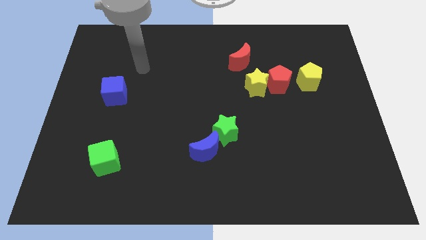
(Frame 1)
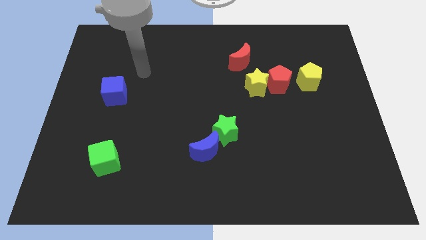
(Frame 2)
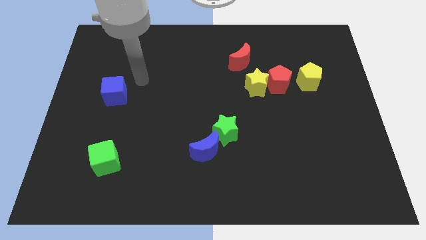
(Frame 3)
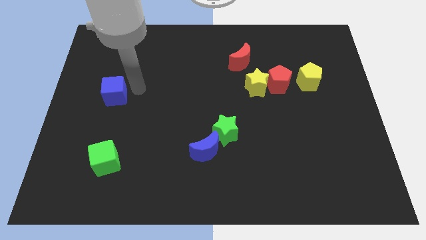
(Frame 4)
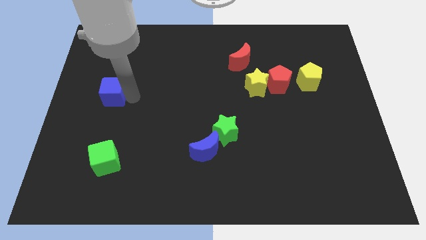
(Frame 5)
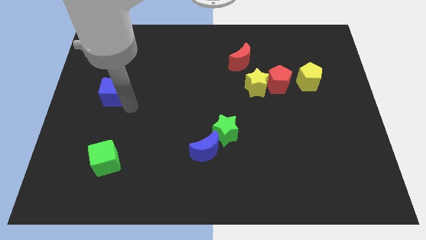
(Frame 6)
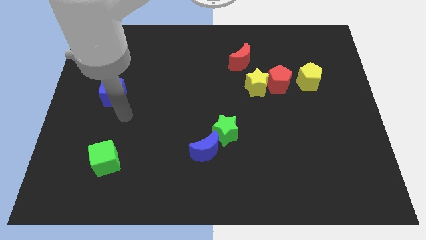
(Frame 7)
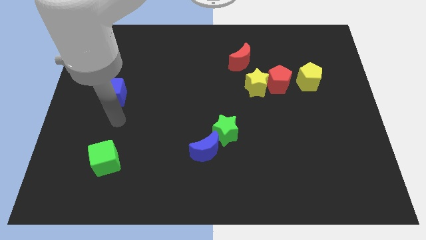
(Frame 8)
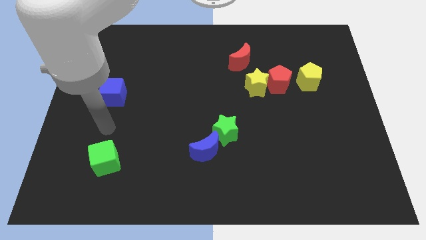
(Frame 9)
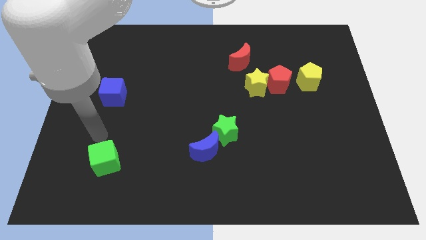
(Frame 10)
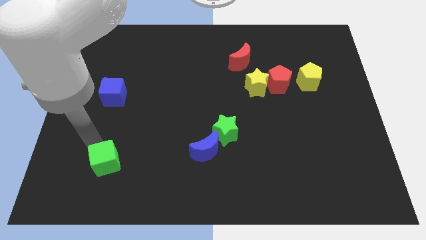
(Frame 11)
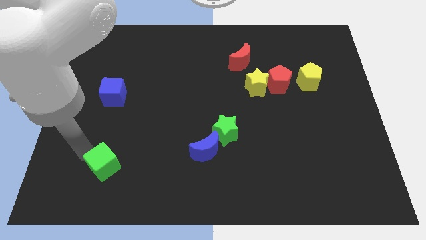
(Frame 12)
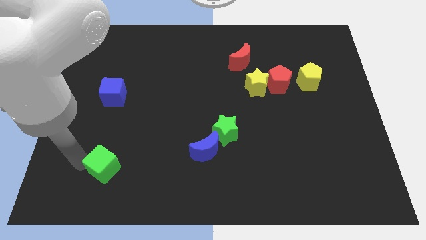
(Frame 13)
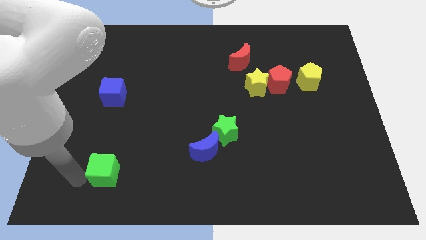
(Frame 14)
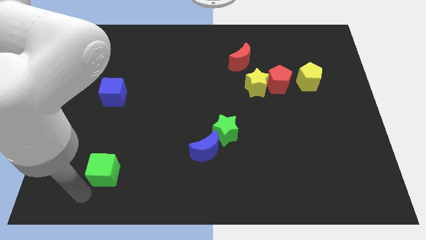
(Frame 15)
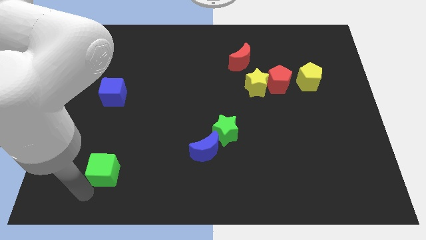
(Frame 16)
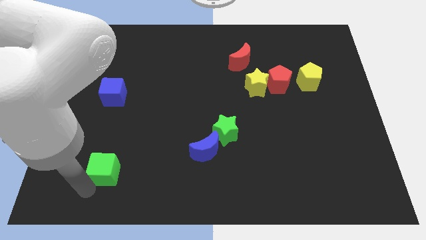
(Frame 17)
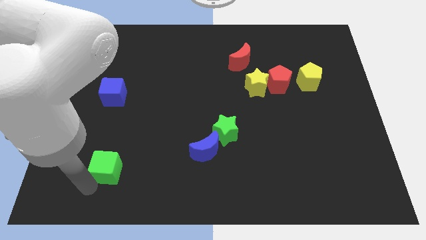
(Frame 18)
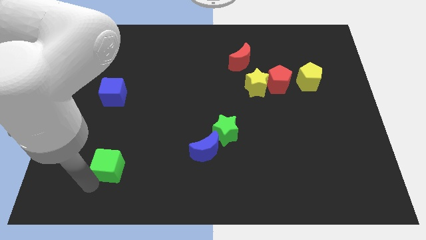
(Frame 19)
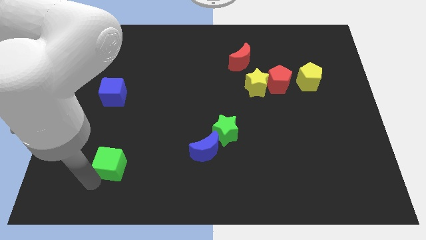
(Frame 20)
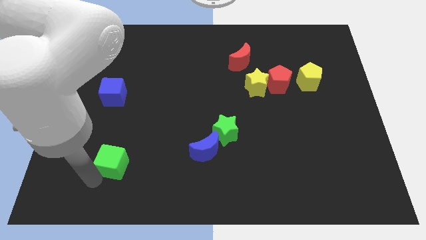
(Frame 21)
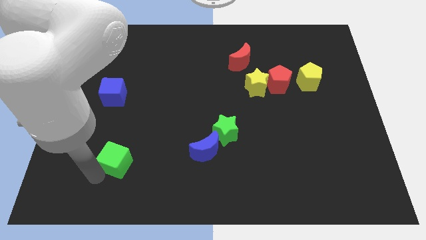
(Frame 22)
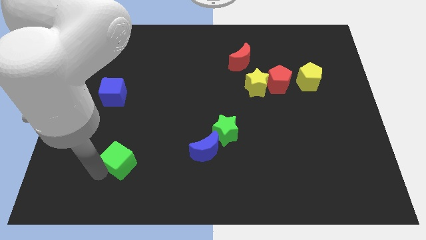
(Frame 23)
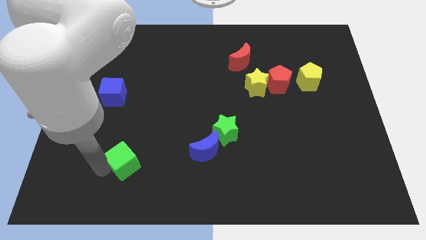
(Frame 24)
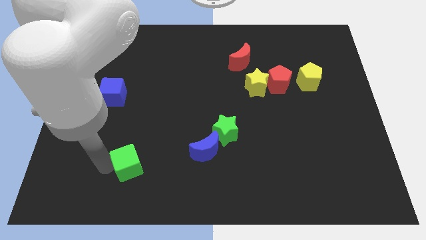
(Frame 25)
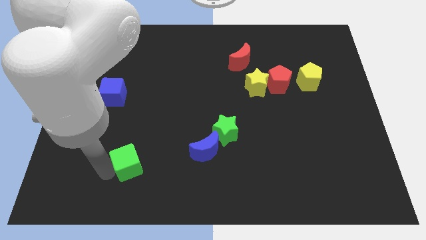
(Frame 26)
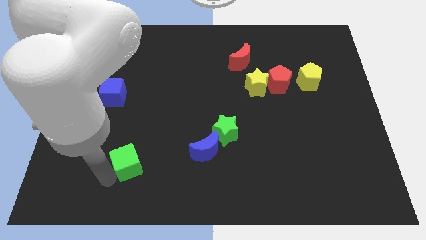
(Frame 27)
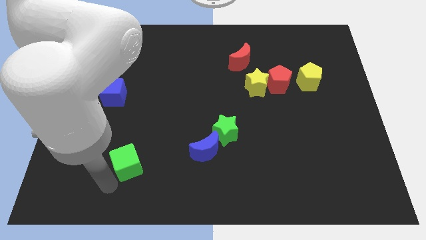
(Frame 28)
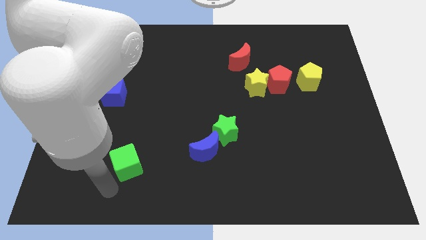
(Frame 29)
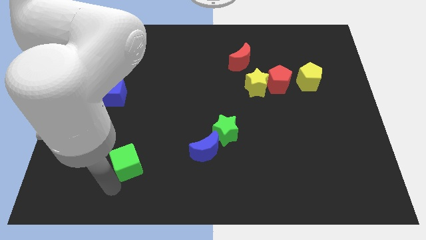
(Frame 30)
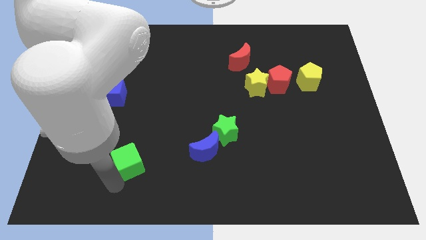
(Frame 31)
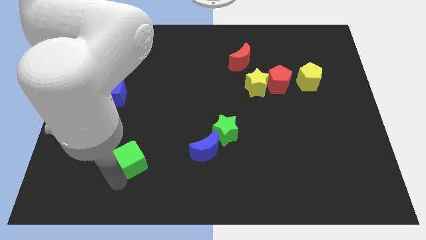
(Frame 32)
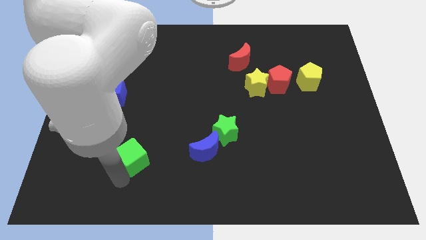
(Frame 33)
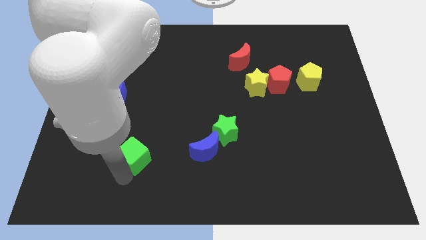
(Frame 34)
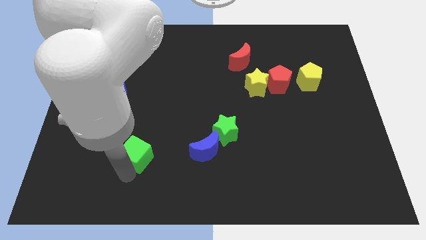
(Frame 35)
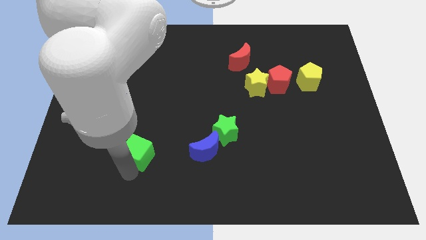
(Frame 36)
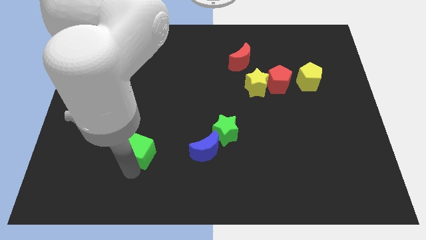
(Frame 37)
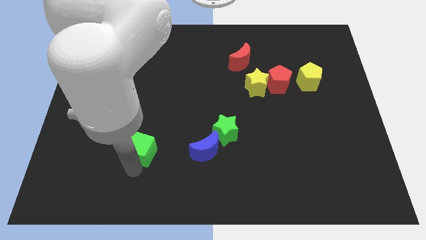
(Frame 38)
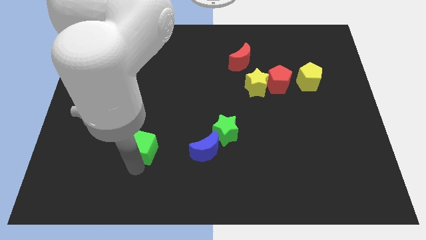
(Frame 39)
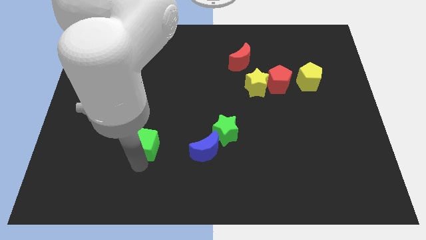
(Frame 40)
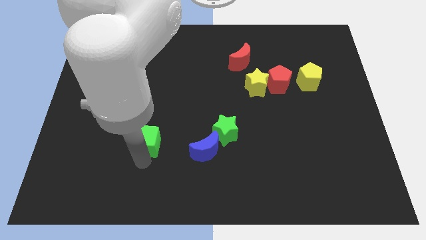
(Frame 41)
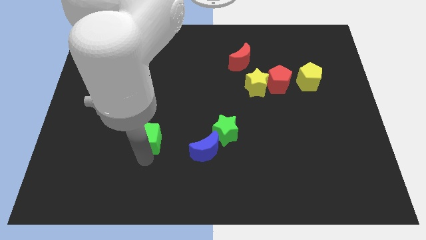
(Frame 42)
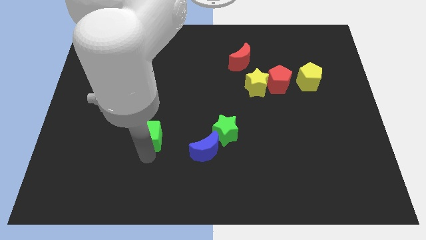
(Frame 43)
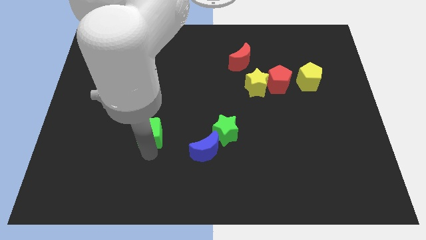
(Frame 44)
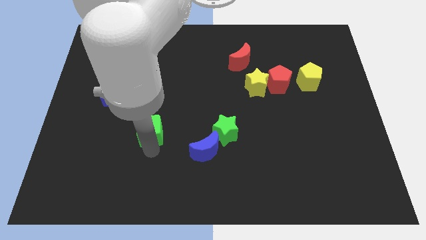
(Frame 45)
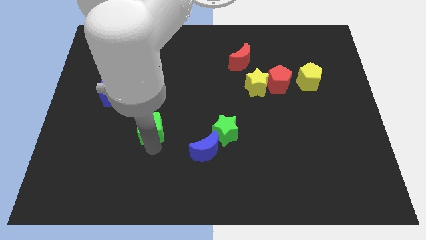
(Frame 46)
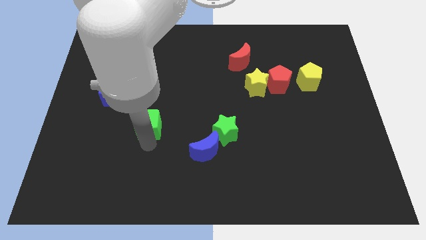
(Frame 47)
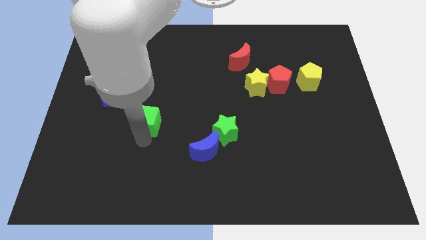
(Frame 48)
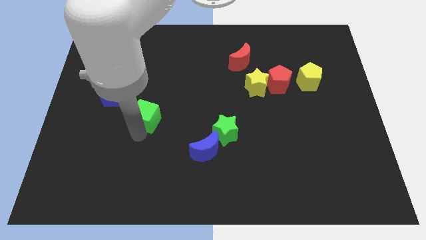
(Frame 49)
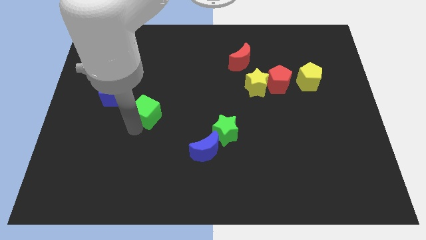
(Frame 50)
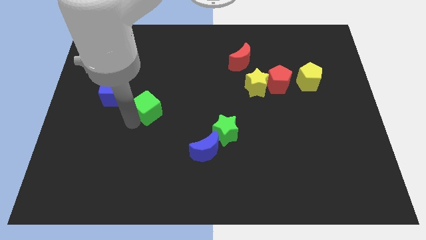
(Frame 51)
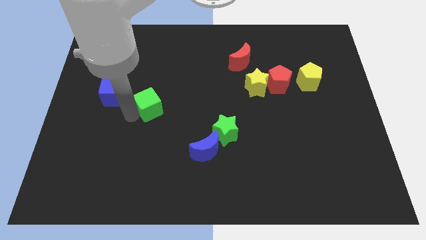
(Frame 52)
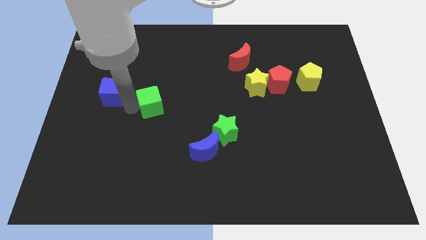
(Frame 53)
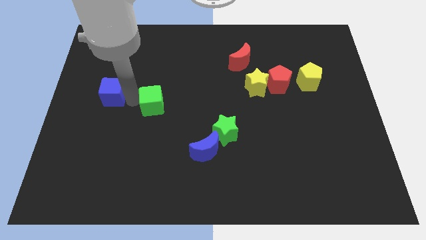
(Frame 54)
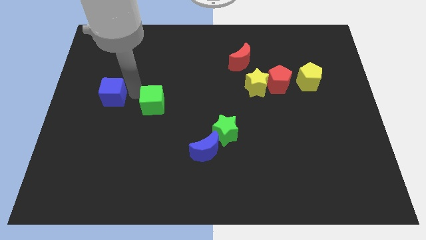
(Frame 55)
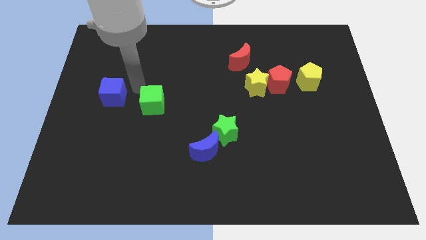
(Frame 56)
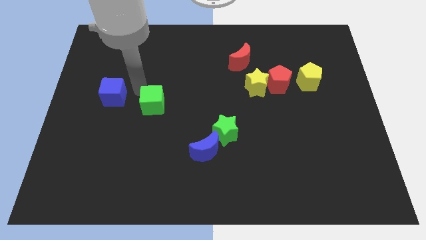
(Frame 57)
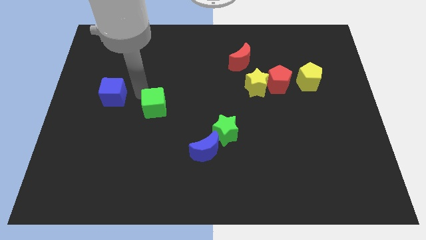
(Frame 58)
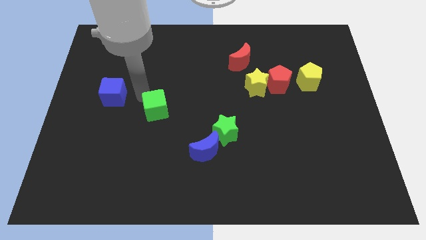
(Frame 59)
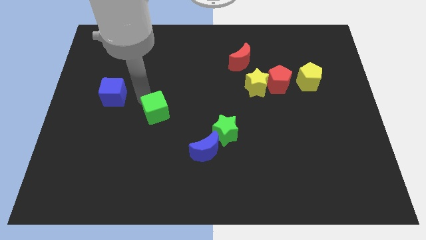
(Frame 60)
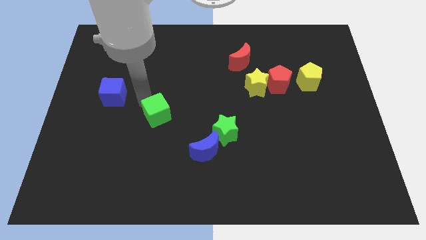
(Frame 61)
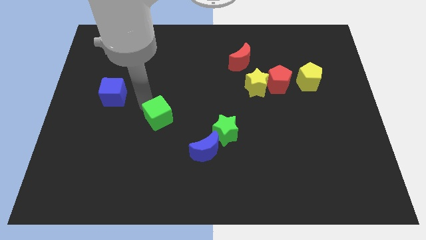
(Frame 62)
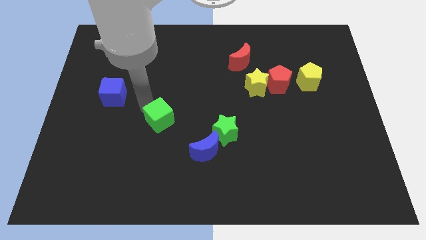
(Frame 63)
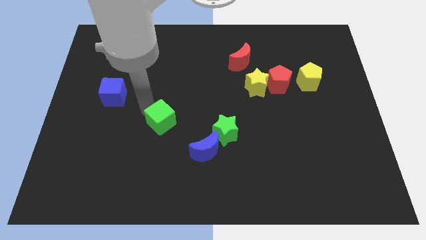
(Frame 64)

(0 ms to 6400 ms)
move the green cube just left of the green star

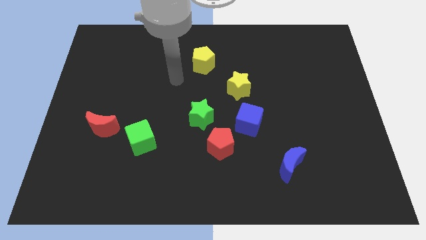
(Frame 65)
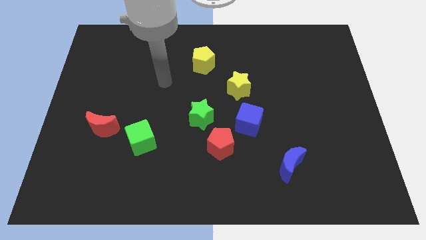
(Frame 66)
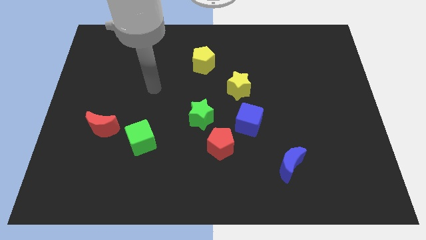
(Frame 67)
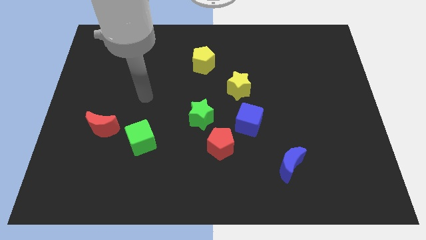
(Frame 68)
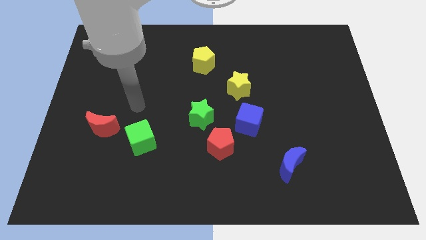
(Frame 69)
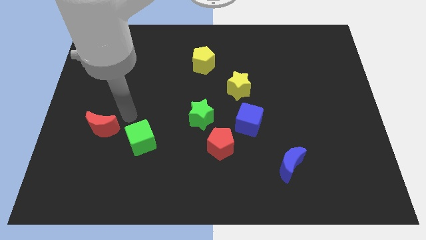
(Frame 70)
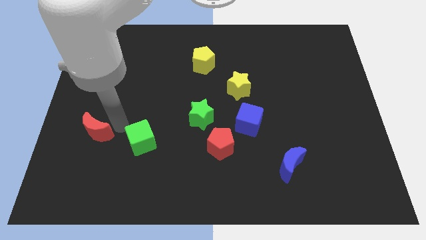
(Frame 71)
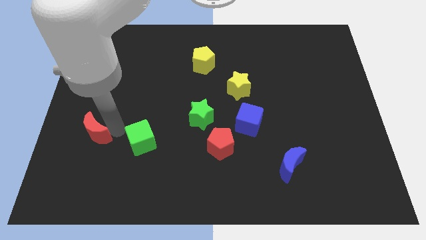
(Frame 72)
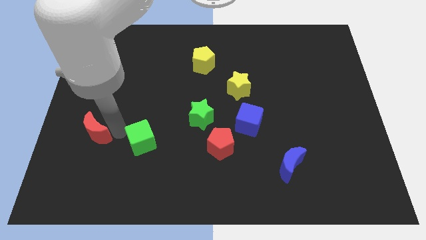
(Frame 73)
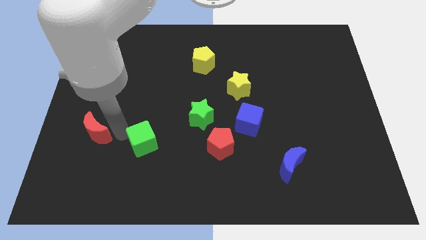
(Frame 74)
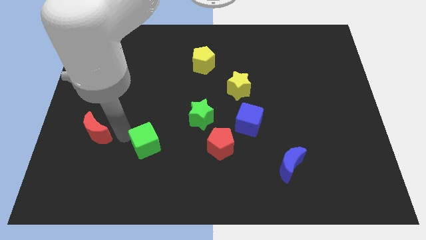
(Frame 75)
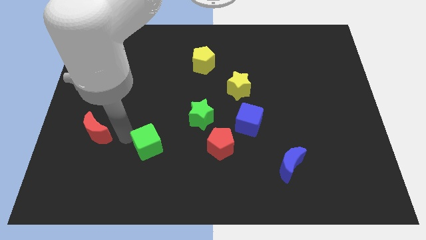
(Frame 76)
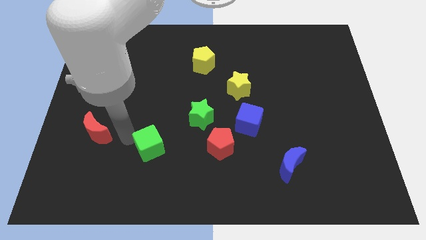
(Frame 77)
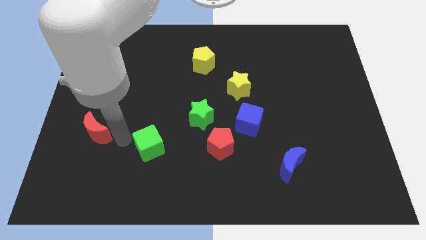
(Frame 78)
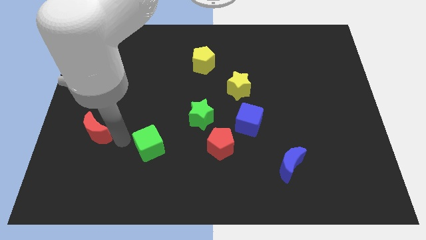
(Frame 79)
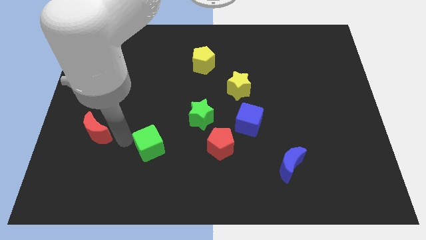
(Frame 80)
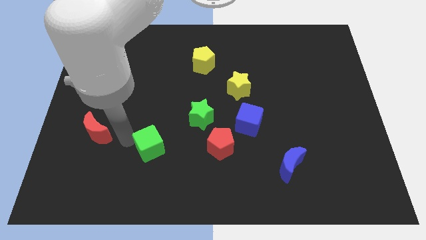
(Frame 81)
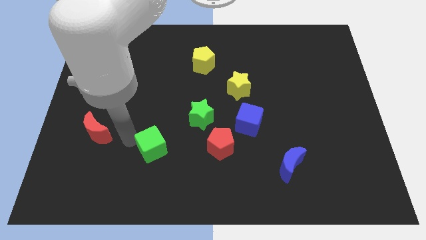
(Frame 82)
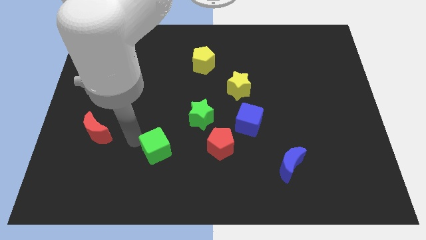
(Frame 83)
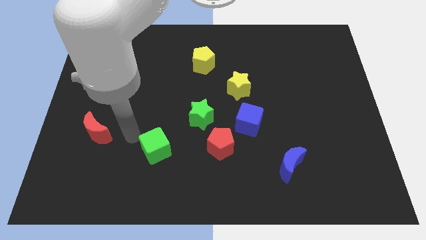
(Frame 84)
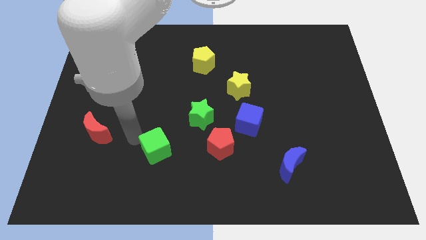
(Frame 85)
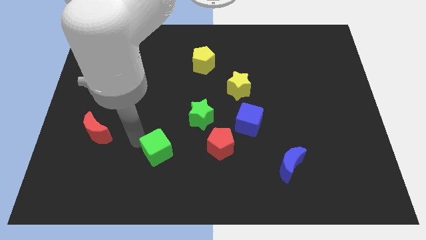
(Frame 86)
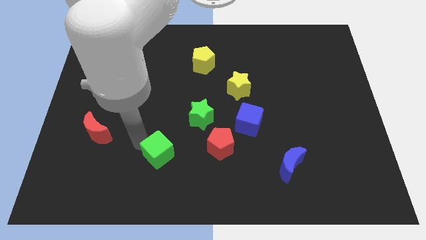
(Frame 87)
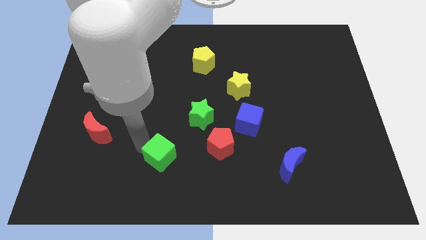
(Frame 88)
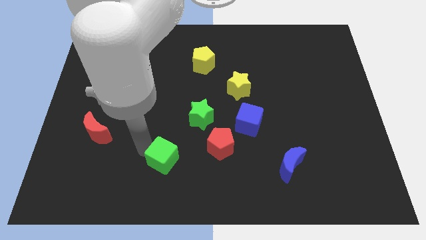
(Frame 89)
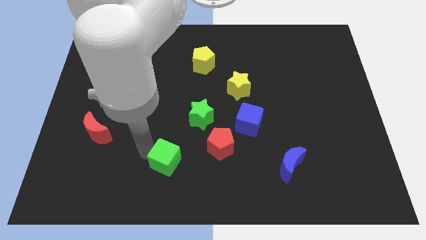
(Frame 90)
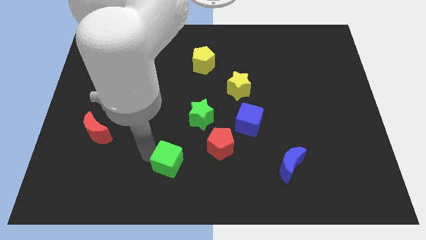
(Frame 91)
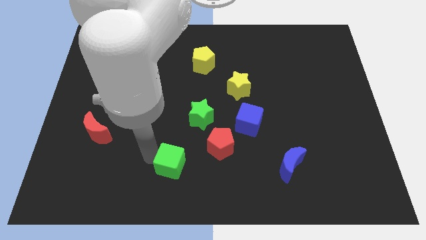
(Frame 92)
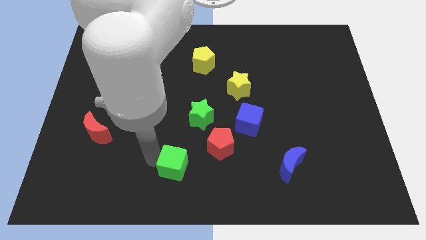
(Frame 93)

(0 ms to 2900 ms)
move the green cube to the bottom left of the red pentagon
